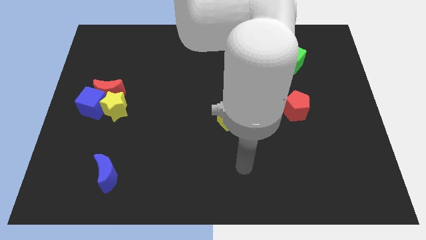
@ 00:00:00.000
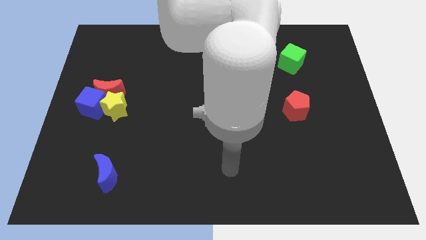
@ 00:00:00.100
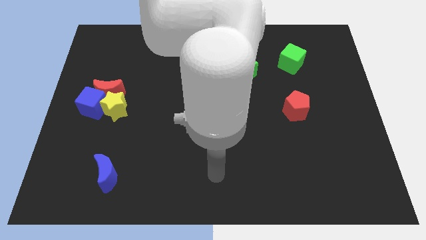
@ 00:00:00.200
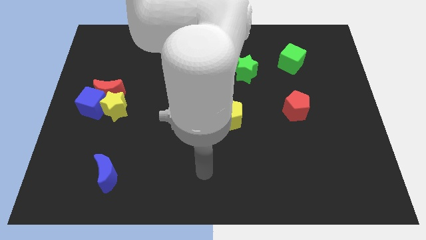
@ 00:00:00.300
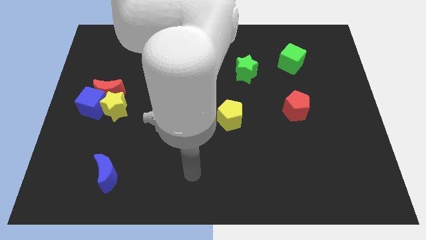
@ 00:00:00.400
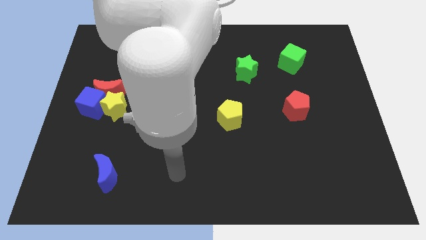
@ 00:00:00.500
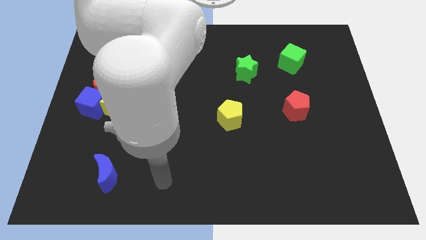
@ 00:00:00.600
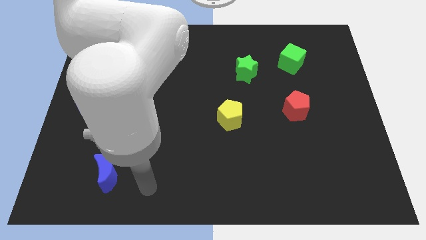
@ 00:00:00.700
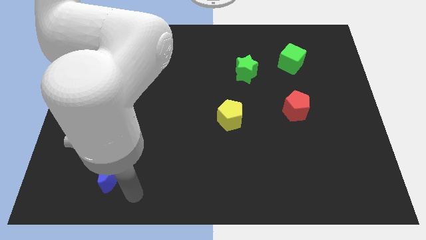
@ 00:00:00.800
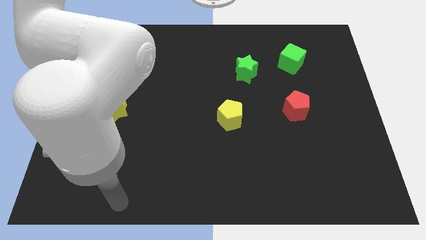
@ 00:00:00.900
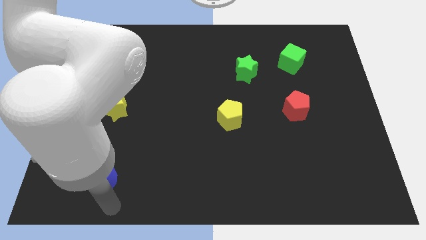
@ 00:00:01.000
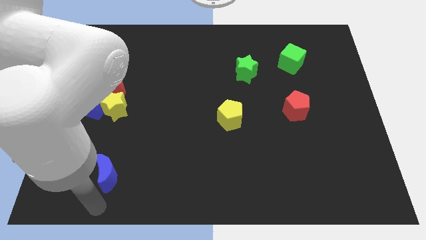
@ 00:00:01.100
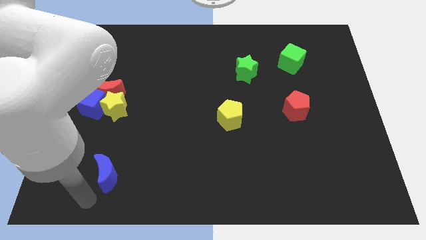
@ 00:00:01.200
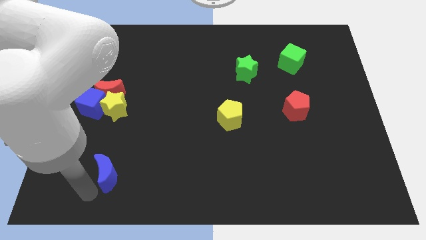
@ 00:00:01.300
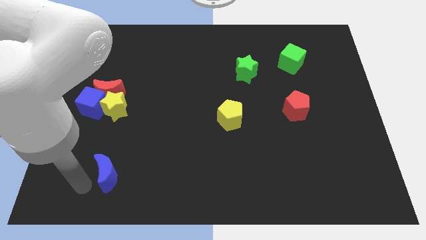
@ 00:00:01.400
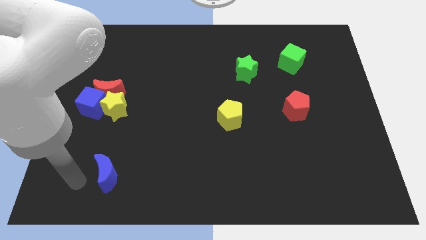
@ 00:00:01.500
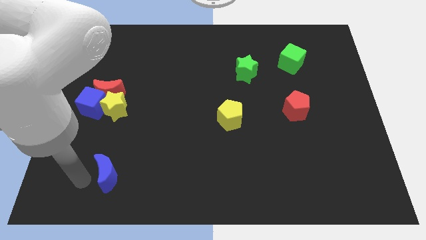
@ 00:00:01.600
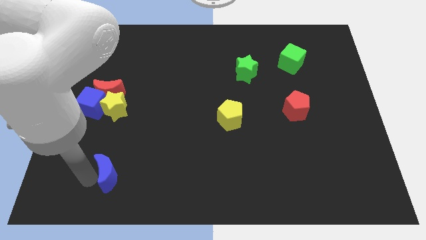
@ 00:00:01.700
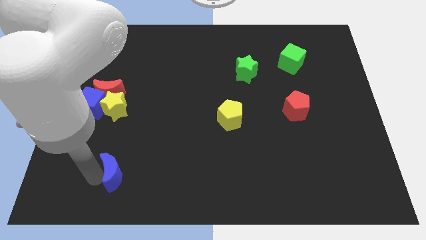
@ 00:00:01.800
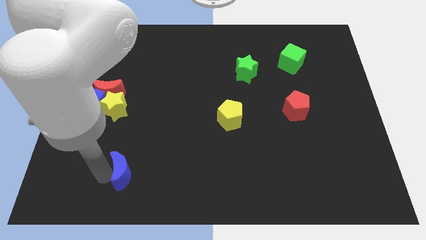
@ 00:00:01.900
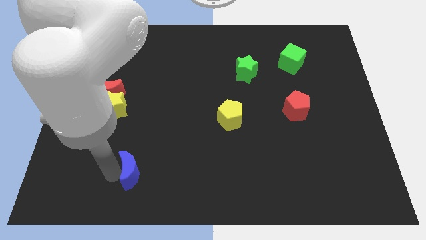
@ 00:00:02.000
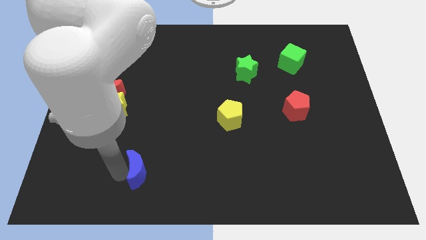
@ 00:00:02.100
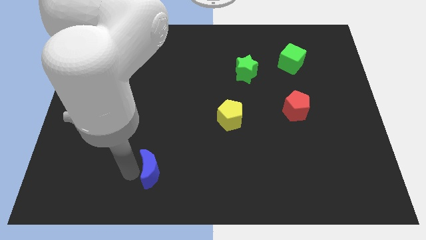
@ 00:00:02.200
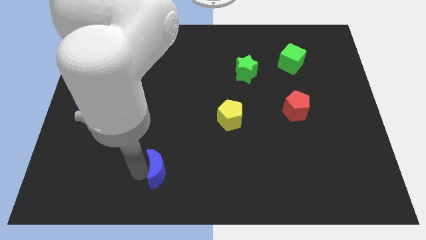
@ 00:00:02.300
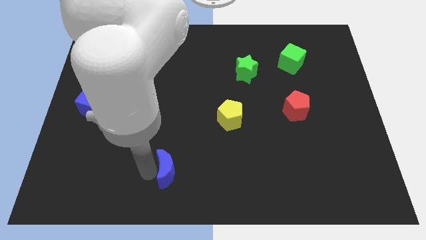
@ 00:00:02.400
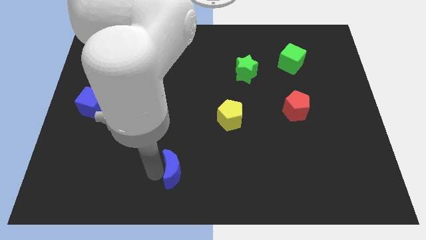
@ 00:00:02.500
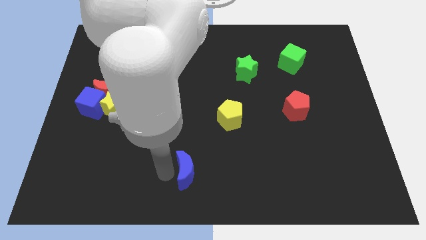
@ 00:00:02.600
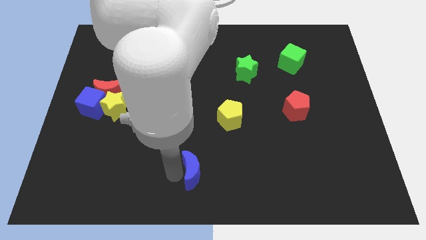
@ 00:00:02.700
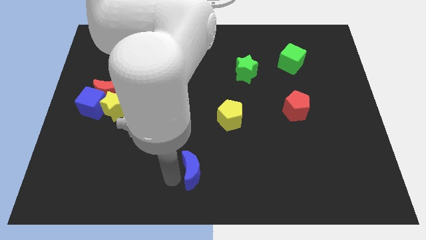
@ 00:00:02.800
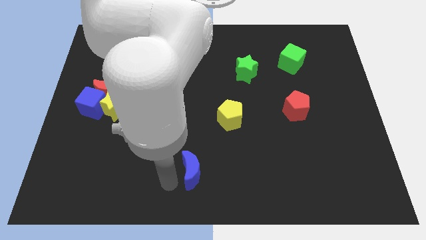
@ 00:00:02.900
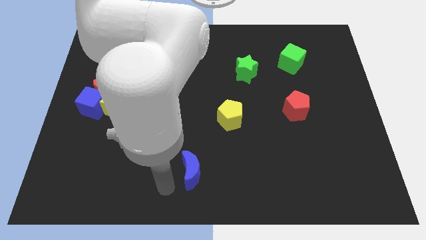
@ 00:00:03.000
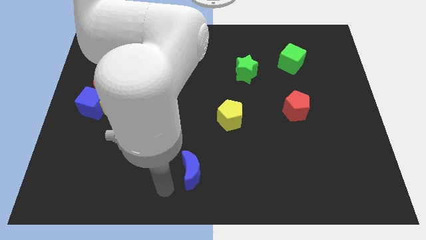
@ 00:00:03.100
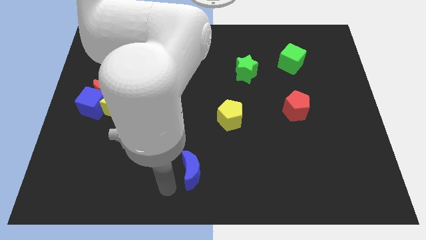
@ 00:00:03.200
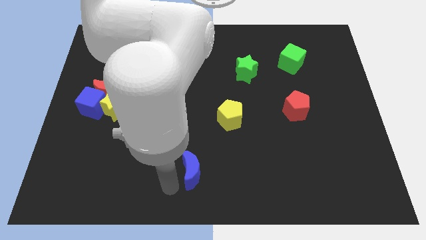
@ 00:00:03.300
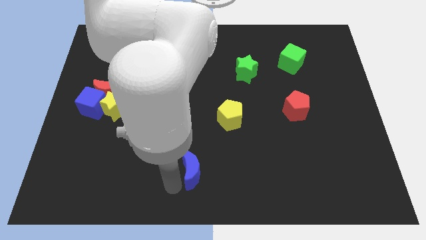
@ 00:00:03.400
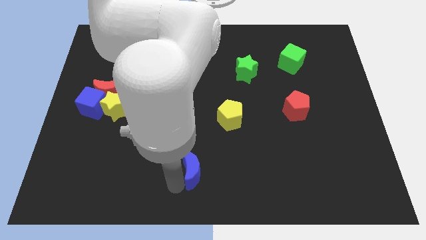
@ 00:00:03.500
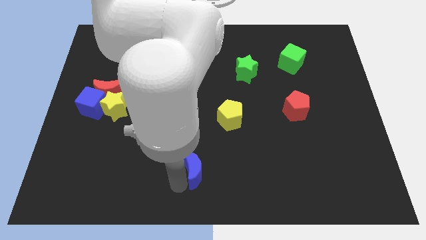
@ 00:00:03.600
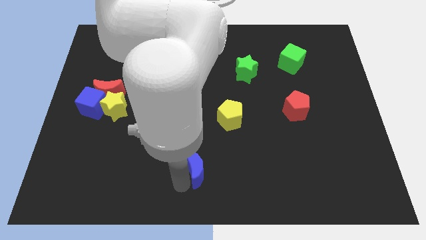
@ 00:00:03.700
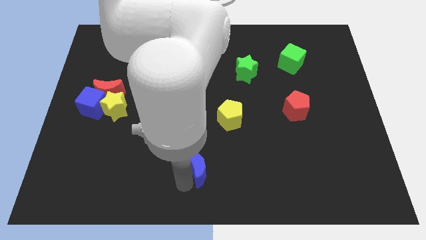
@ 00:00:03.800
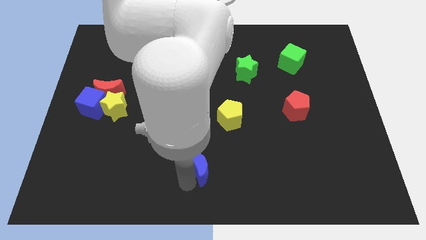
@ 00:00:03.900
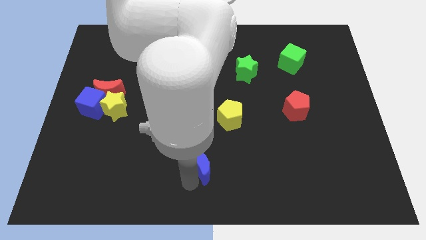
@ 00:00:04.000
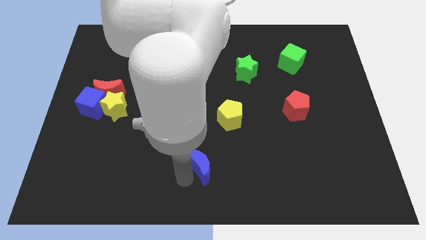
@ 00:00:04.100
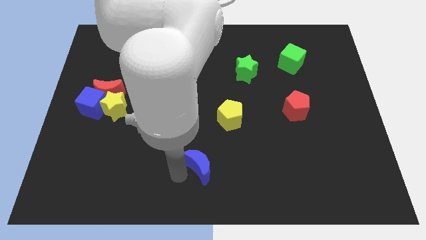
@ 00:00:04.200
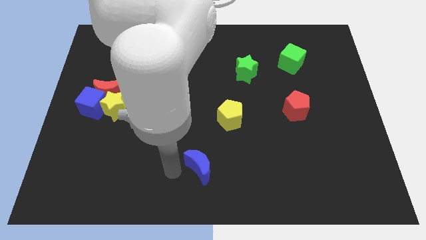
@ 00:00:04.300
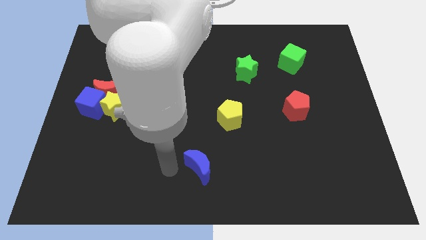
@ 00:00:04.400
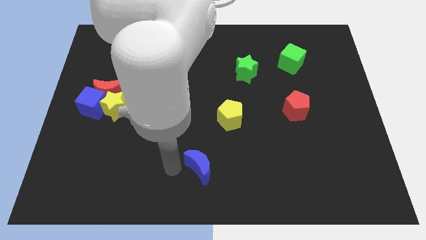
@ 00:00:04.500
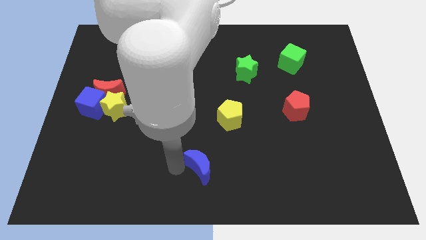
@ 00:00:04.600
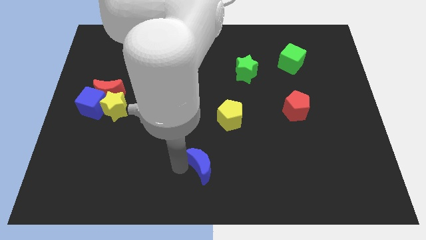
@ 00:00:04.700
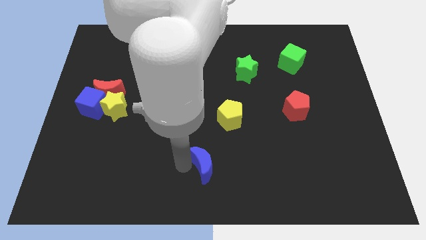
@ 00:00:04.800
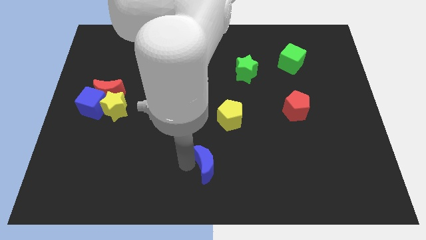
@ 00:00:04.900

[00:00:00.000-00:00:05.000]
push the blue moon to the right

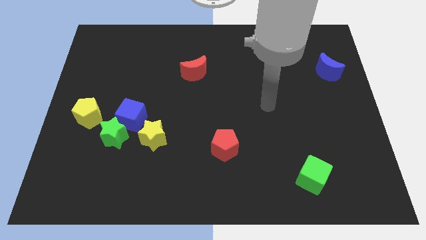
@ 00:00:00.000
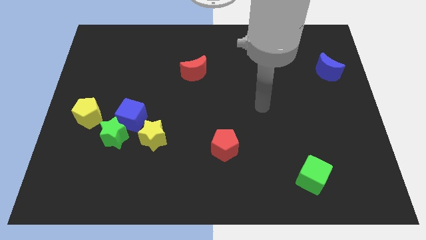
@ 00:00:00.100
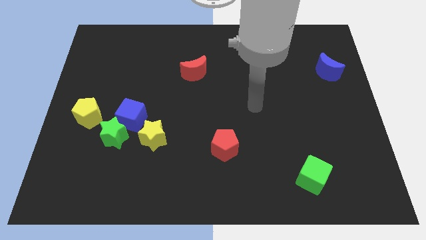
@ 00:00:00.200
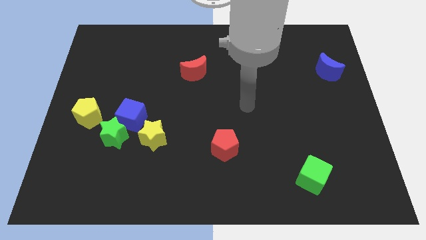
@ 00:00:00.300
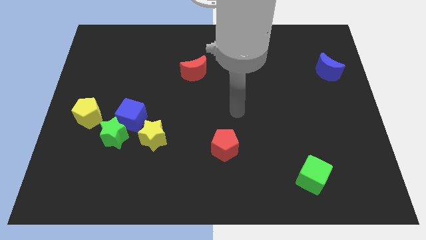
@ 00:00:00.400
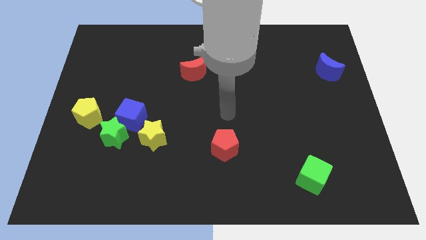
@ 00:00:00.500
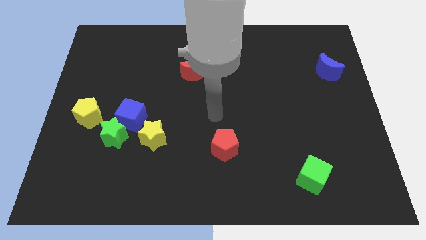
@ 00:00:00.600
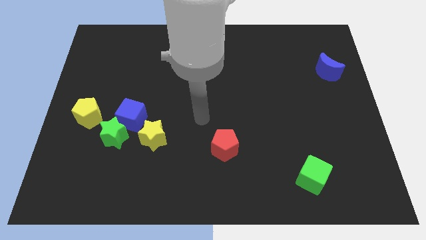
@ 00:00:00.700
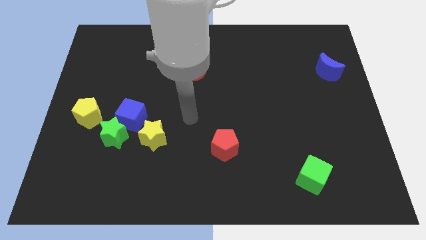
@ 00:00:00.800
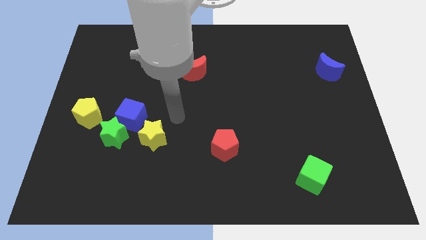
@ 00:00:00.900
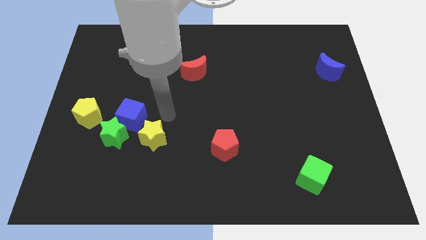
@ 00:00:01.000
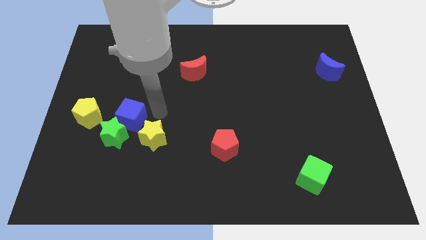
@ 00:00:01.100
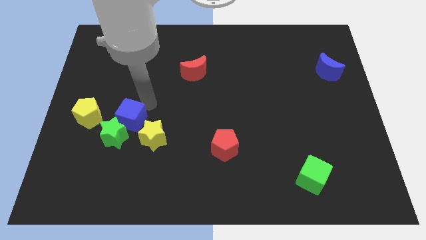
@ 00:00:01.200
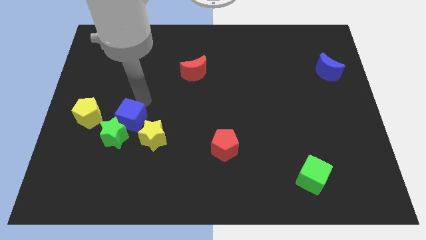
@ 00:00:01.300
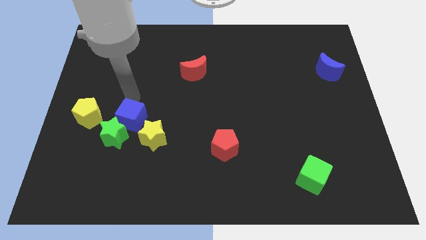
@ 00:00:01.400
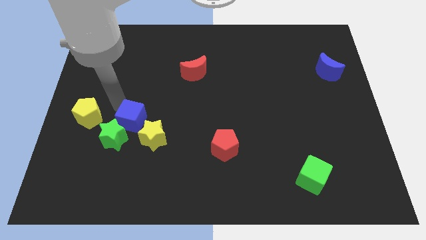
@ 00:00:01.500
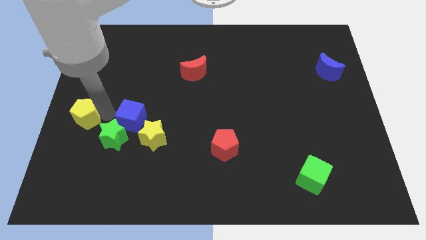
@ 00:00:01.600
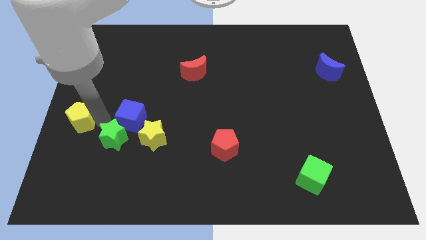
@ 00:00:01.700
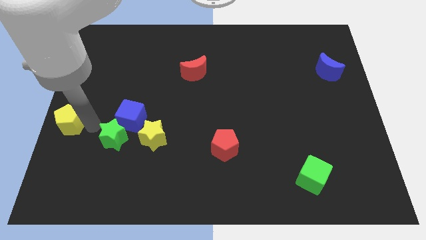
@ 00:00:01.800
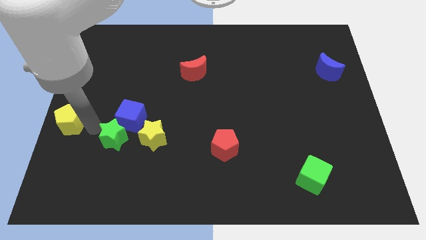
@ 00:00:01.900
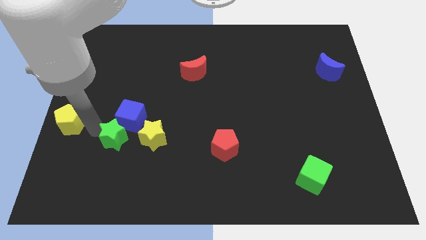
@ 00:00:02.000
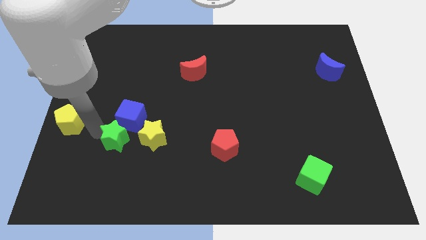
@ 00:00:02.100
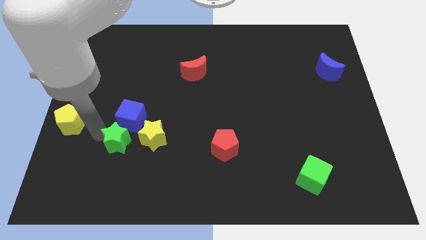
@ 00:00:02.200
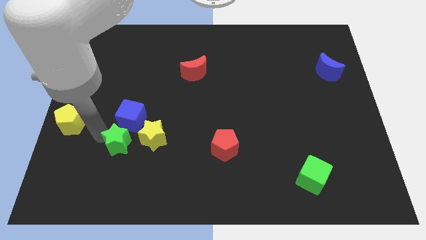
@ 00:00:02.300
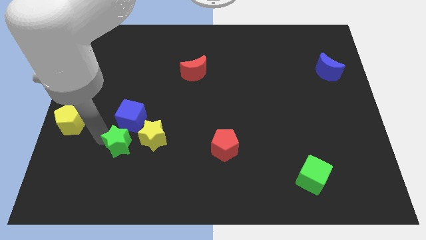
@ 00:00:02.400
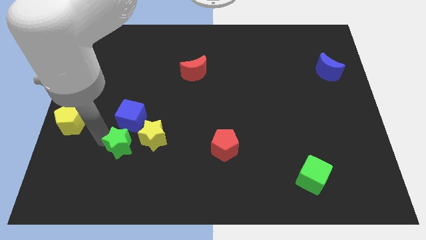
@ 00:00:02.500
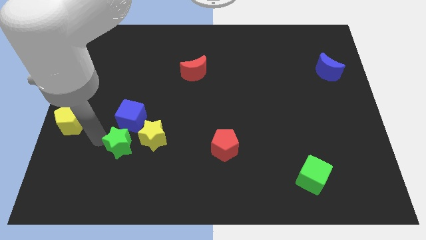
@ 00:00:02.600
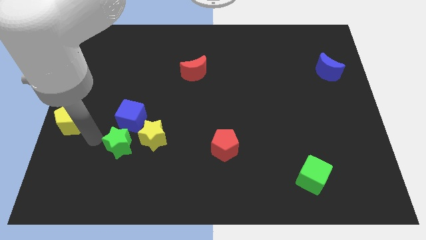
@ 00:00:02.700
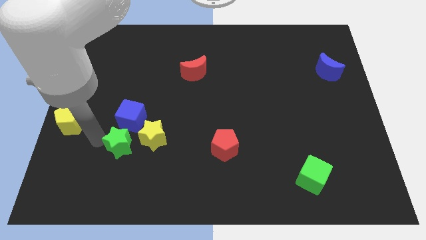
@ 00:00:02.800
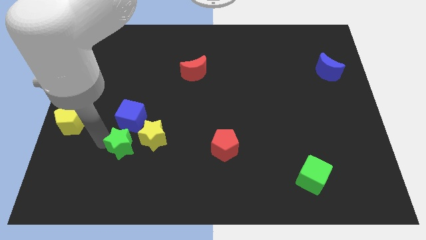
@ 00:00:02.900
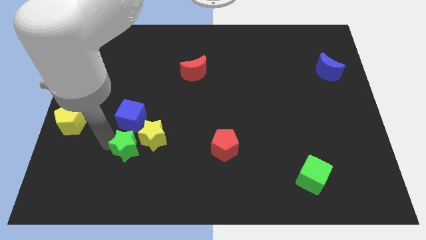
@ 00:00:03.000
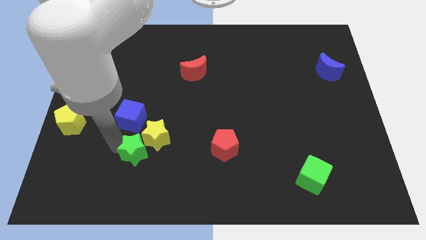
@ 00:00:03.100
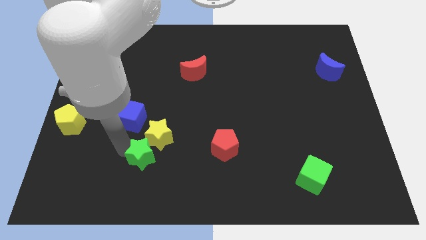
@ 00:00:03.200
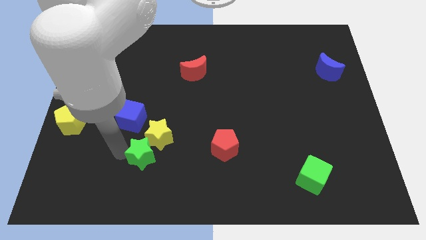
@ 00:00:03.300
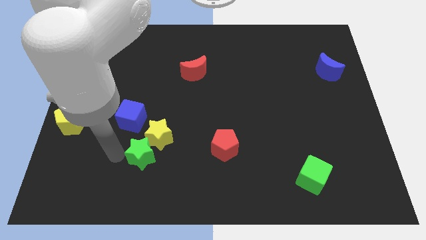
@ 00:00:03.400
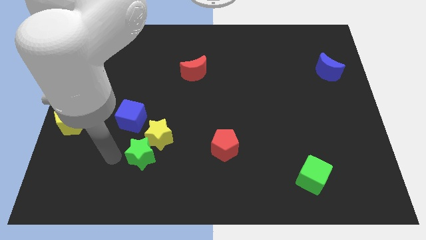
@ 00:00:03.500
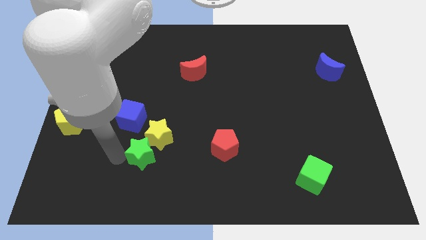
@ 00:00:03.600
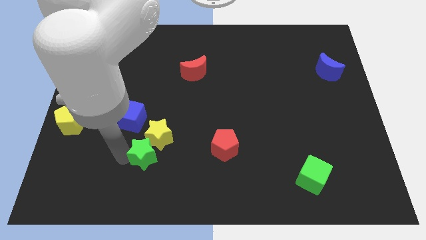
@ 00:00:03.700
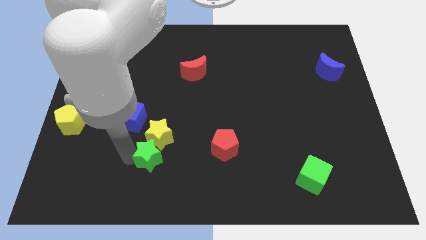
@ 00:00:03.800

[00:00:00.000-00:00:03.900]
slightly move the green star right
